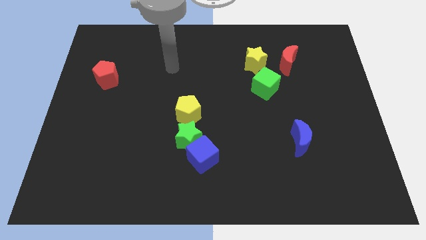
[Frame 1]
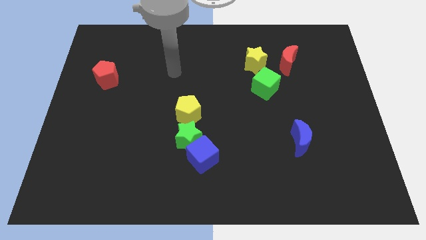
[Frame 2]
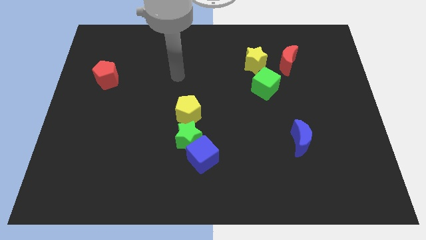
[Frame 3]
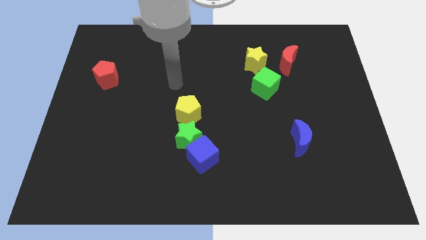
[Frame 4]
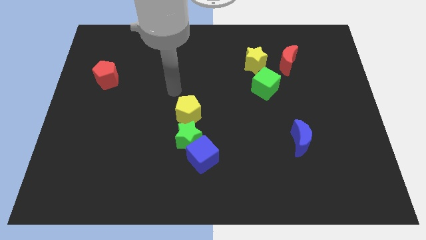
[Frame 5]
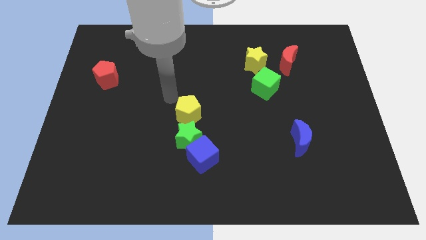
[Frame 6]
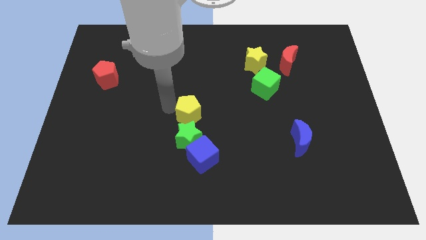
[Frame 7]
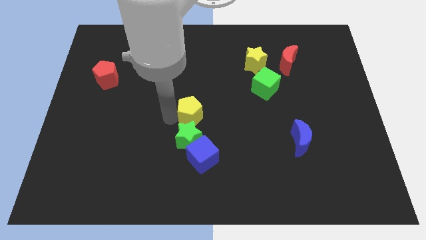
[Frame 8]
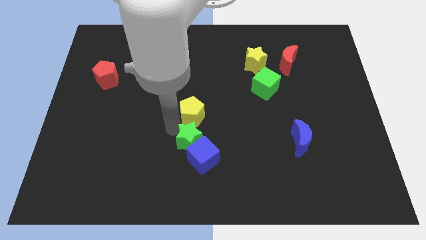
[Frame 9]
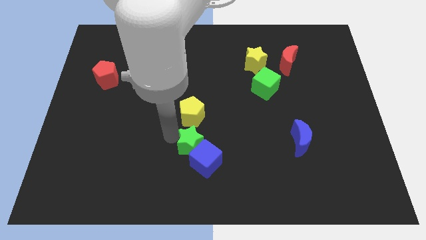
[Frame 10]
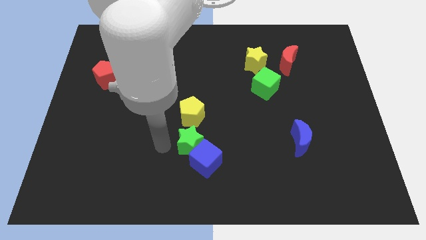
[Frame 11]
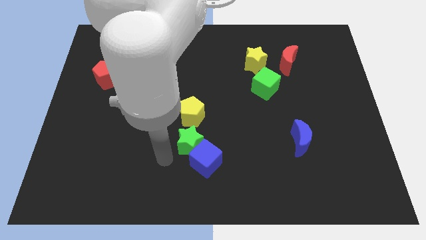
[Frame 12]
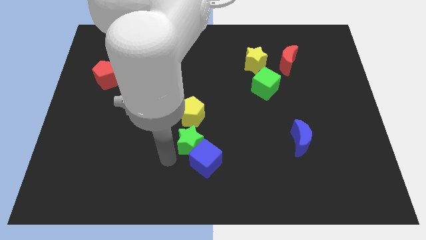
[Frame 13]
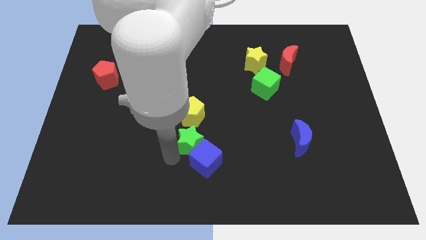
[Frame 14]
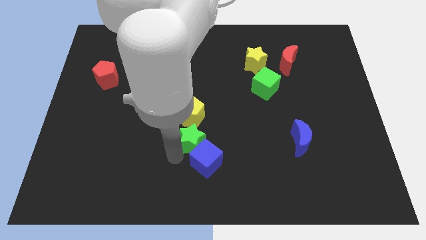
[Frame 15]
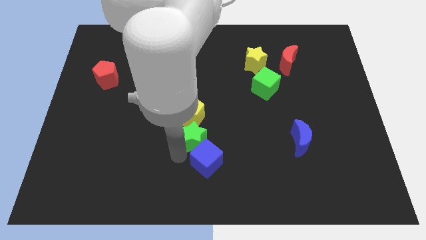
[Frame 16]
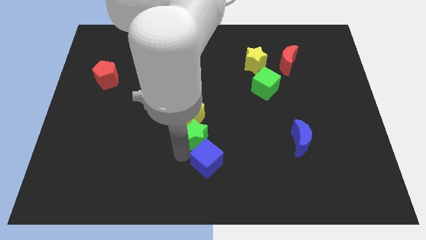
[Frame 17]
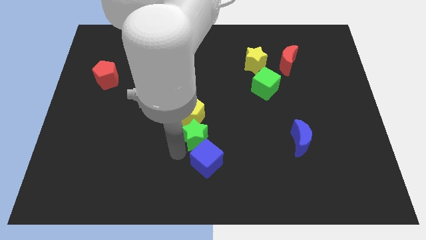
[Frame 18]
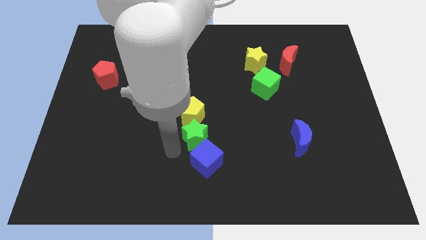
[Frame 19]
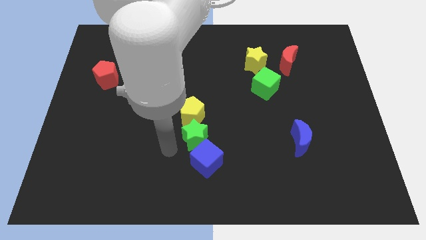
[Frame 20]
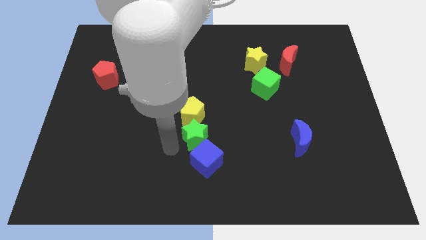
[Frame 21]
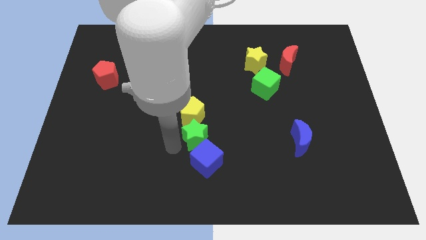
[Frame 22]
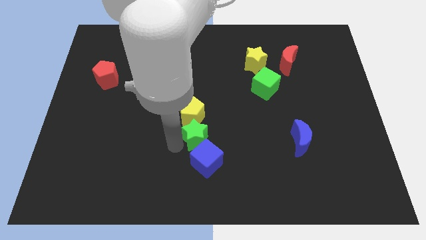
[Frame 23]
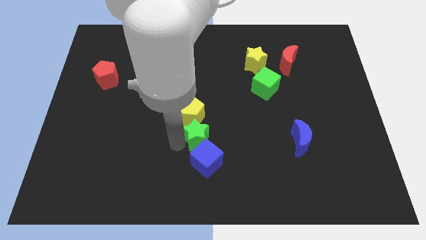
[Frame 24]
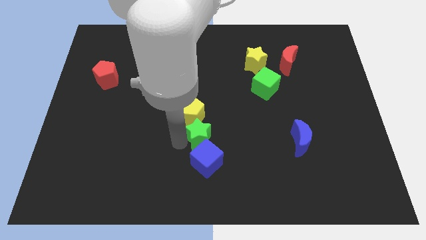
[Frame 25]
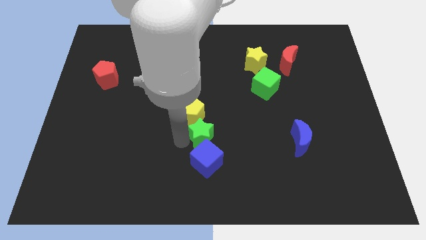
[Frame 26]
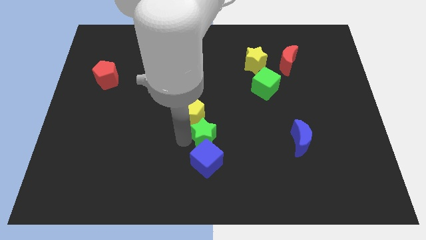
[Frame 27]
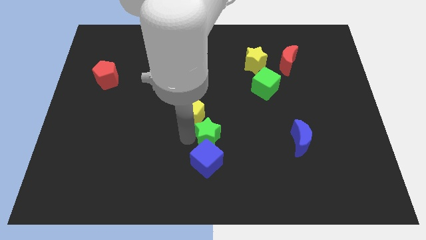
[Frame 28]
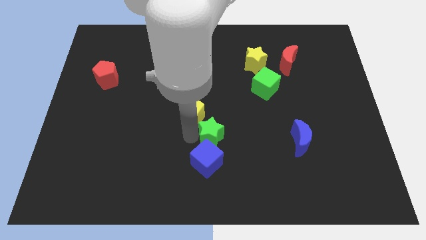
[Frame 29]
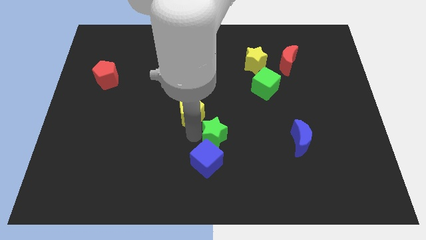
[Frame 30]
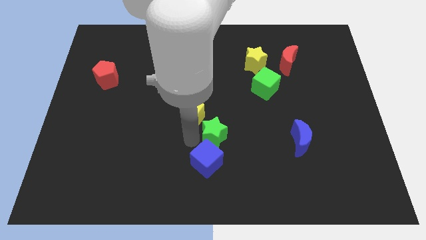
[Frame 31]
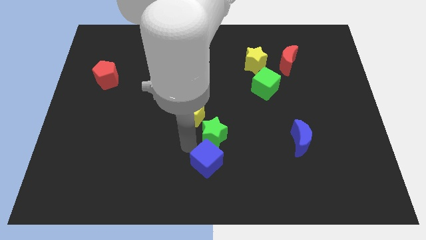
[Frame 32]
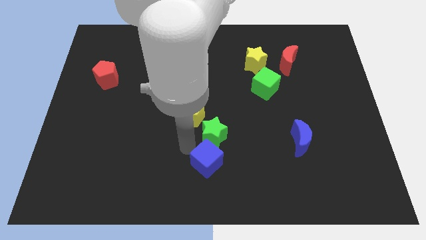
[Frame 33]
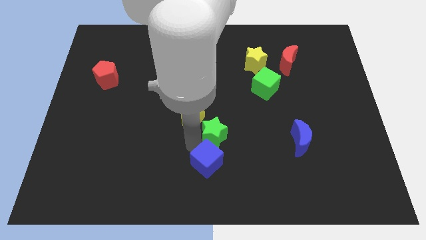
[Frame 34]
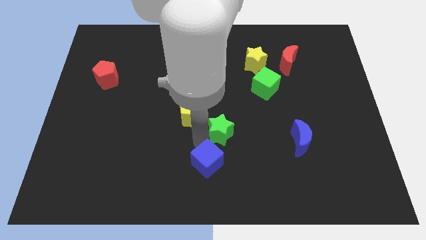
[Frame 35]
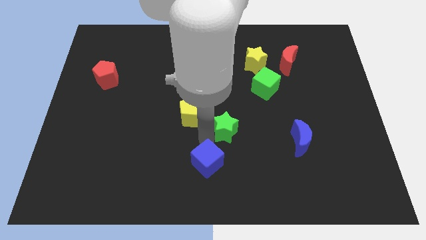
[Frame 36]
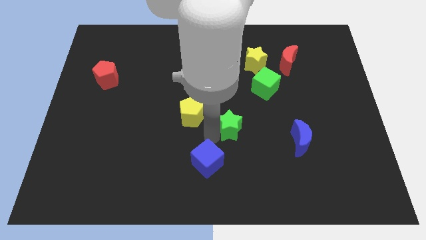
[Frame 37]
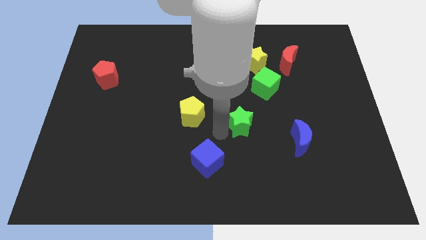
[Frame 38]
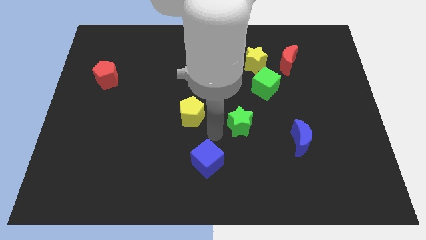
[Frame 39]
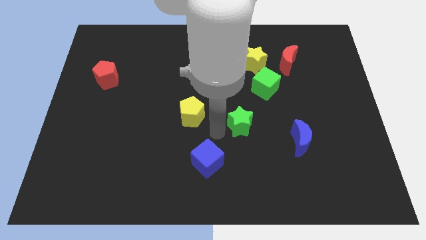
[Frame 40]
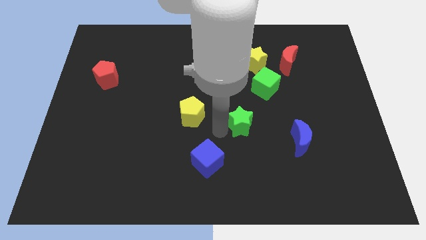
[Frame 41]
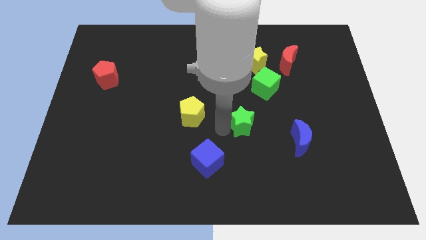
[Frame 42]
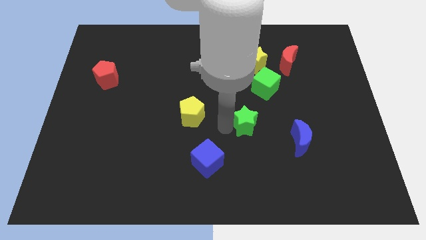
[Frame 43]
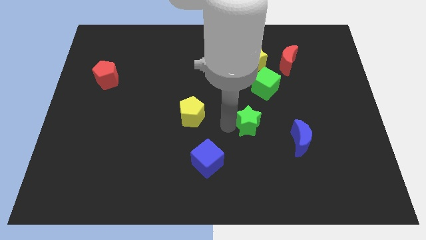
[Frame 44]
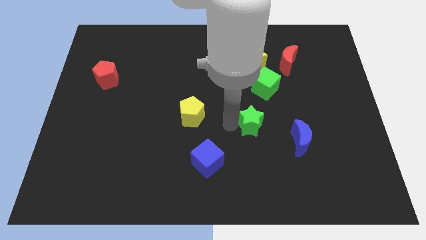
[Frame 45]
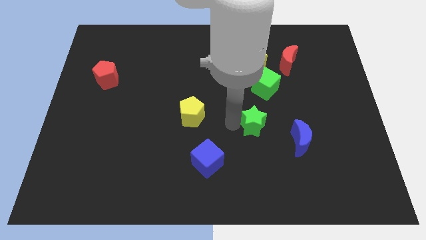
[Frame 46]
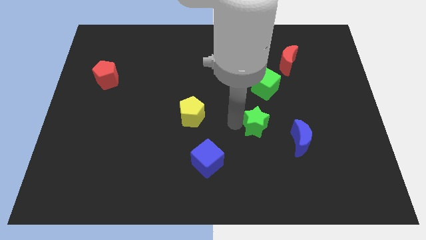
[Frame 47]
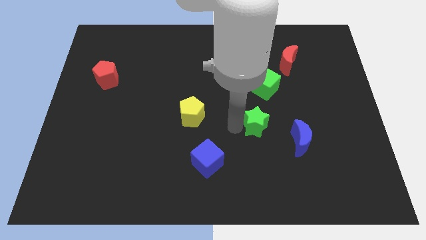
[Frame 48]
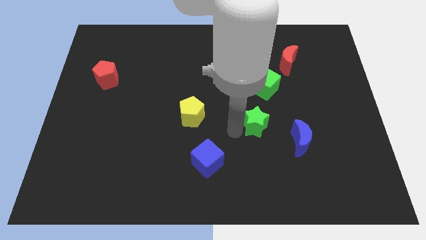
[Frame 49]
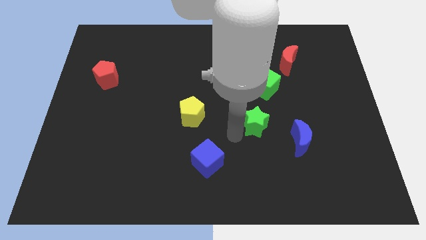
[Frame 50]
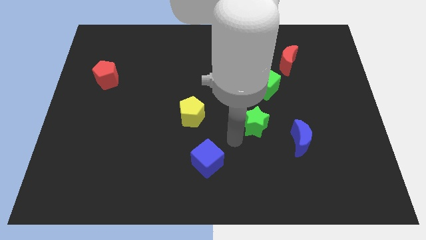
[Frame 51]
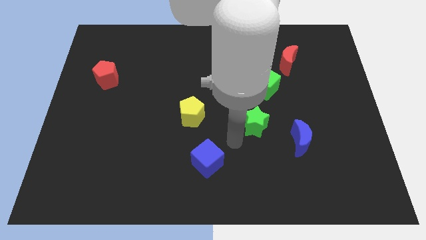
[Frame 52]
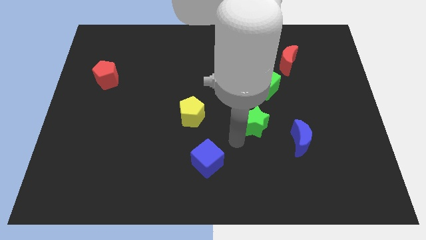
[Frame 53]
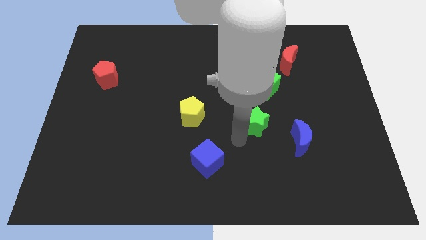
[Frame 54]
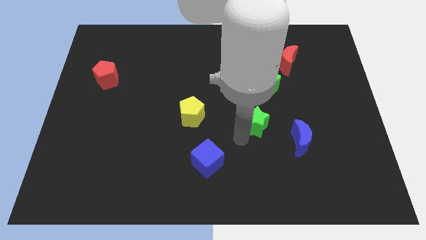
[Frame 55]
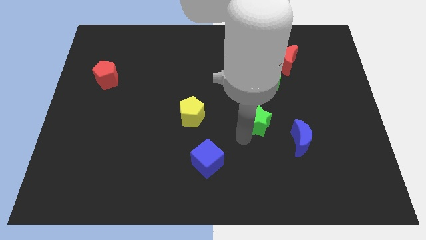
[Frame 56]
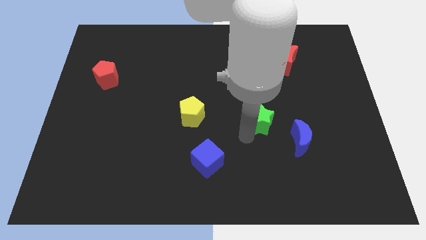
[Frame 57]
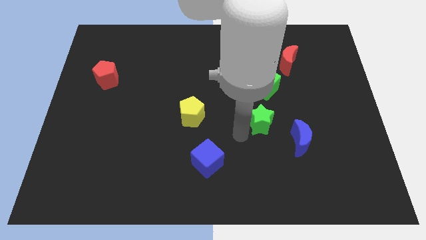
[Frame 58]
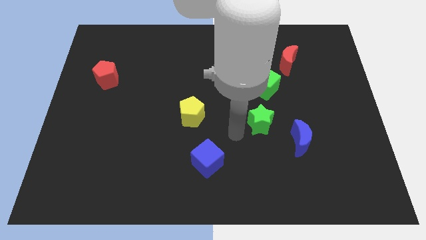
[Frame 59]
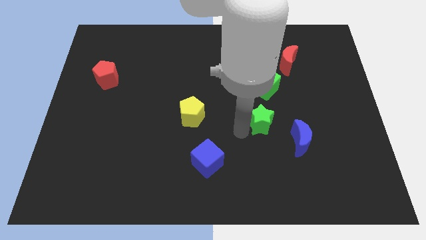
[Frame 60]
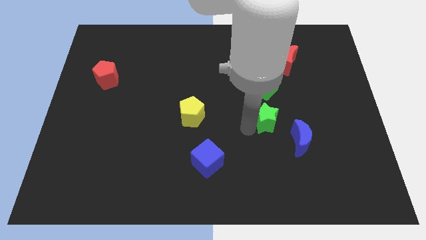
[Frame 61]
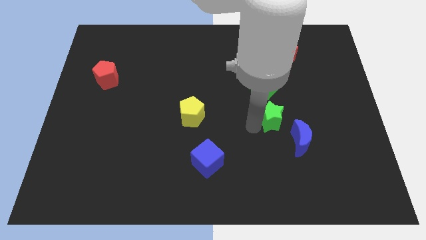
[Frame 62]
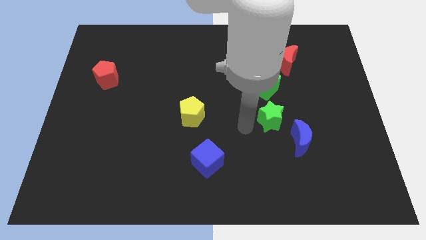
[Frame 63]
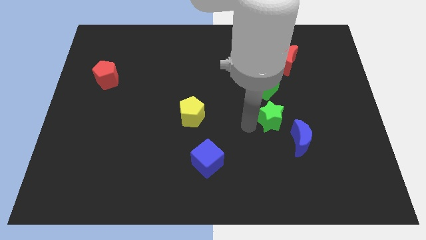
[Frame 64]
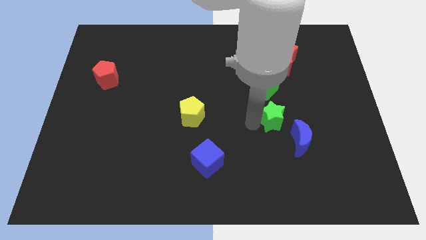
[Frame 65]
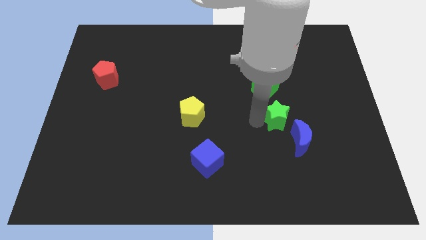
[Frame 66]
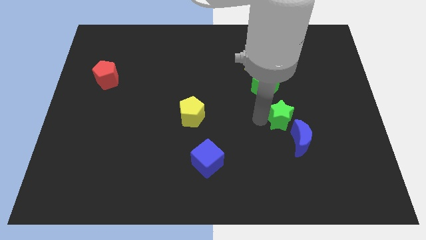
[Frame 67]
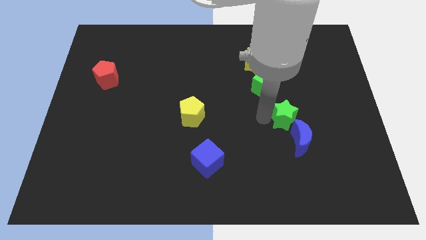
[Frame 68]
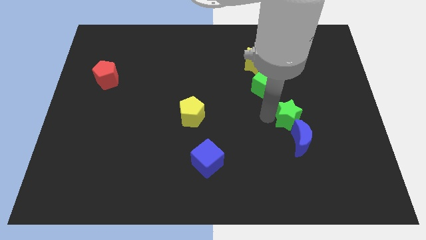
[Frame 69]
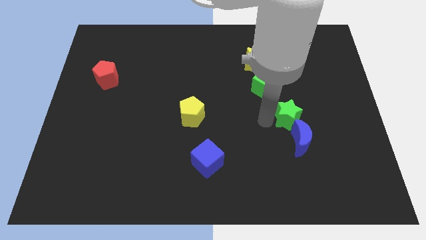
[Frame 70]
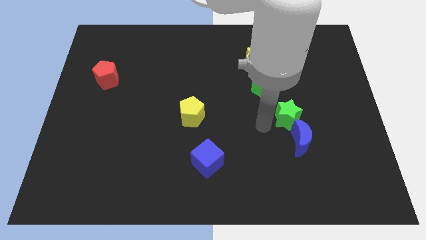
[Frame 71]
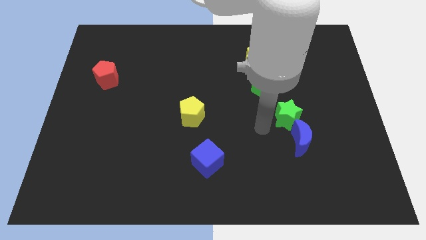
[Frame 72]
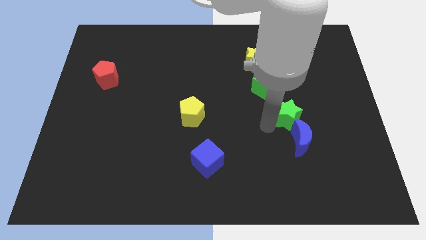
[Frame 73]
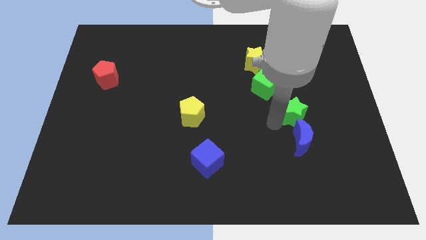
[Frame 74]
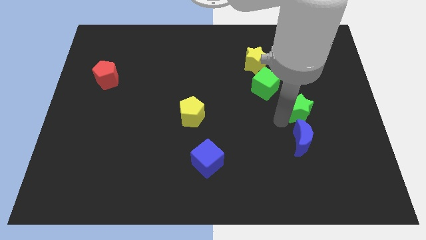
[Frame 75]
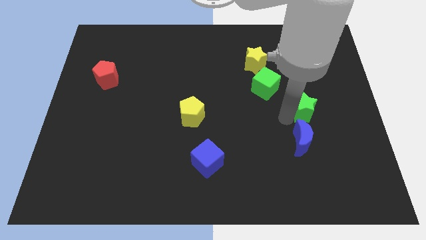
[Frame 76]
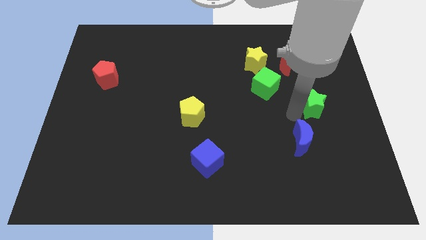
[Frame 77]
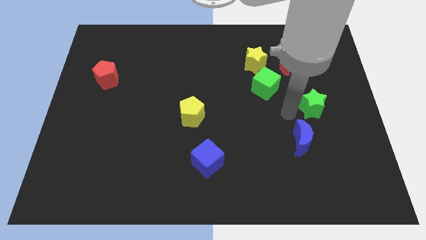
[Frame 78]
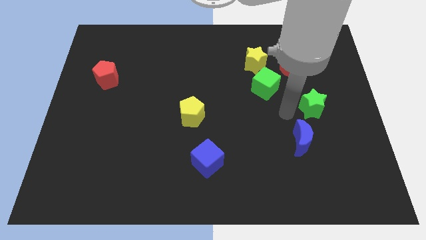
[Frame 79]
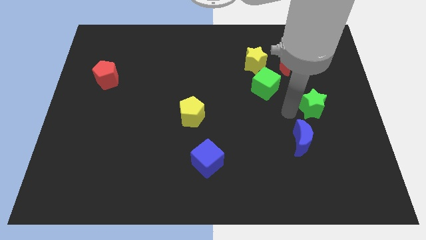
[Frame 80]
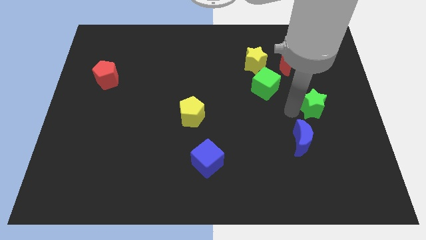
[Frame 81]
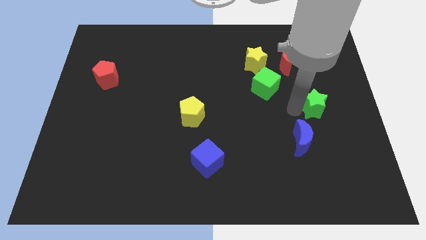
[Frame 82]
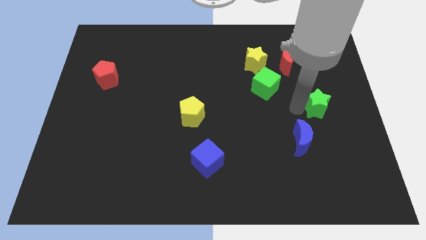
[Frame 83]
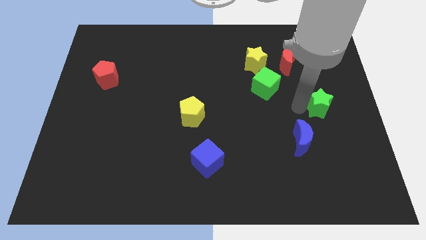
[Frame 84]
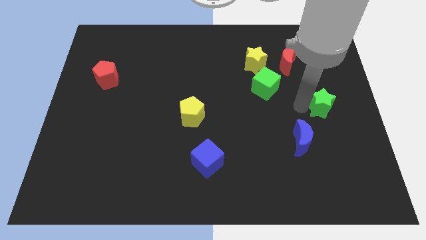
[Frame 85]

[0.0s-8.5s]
push the green star to the right side of the board
